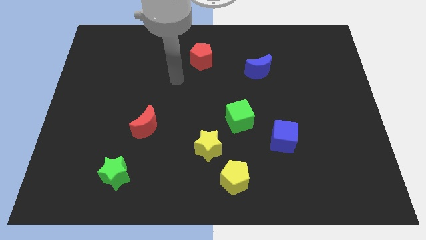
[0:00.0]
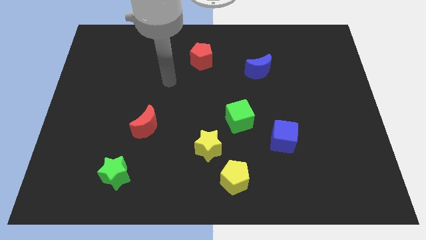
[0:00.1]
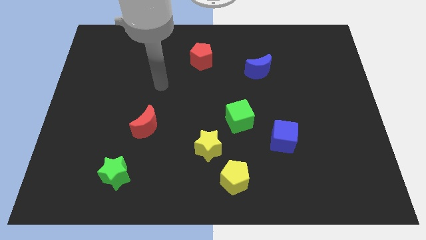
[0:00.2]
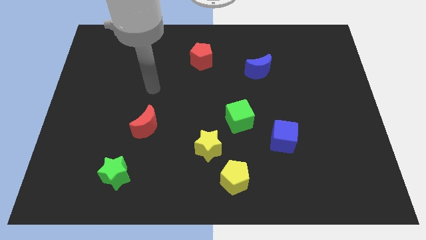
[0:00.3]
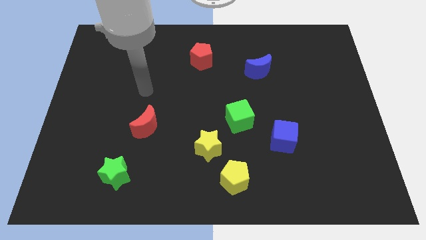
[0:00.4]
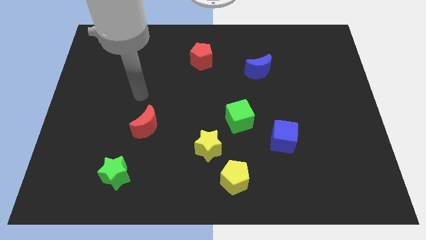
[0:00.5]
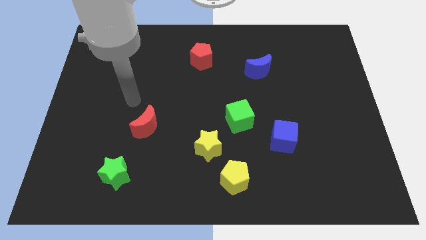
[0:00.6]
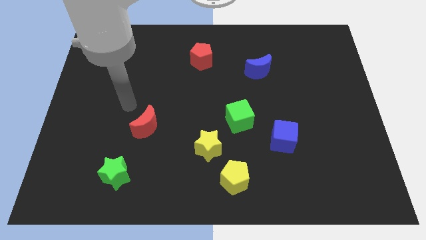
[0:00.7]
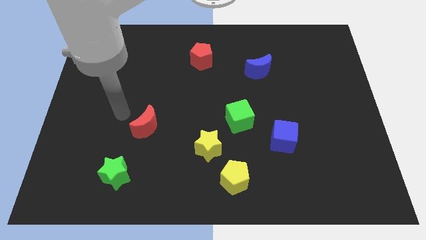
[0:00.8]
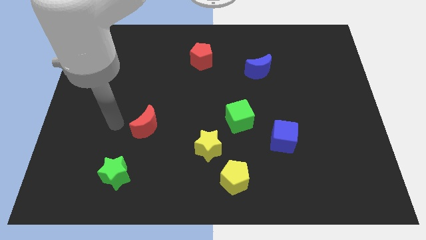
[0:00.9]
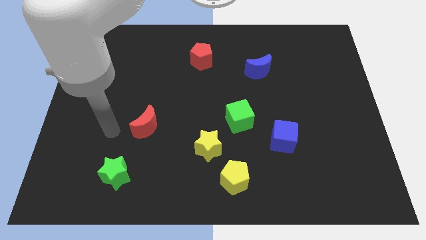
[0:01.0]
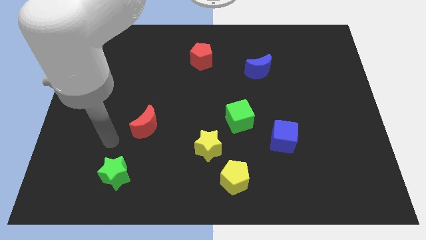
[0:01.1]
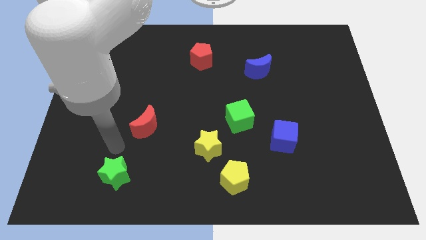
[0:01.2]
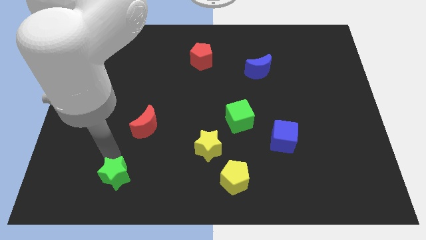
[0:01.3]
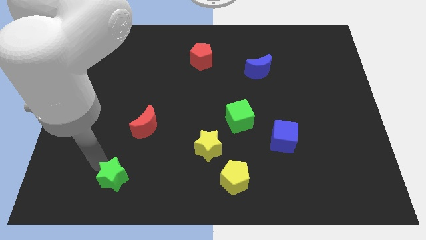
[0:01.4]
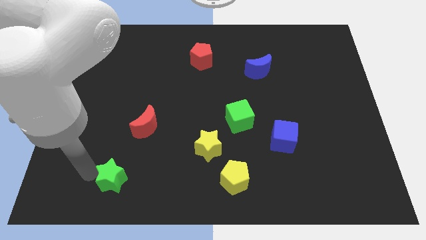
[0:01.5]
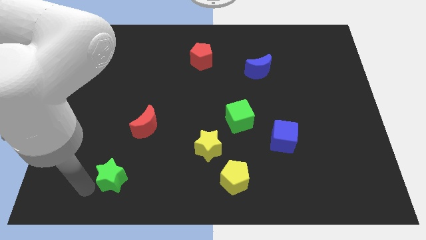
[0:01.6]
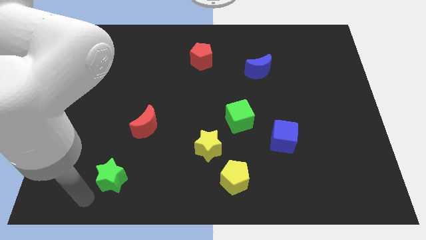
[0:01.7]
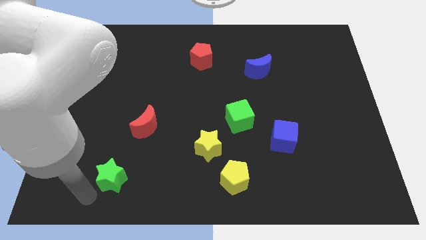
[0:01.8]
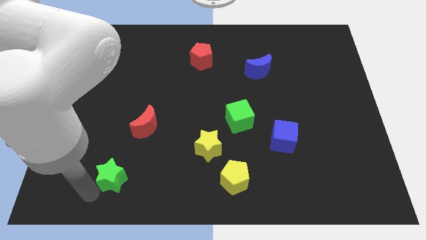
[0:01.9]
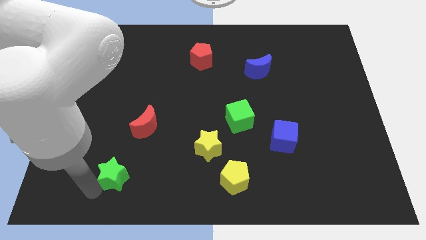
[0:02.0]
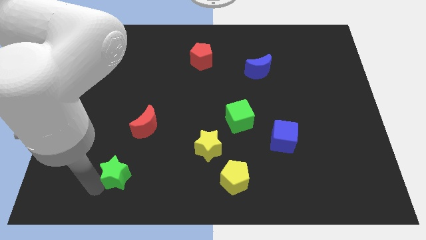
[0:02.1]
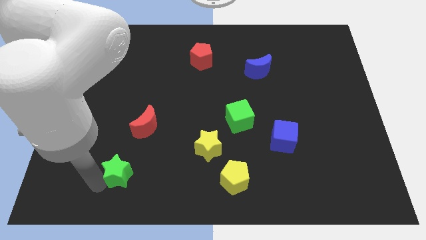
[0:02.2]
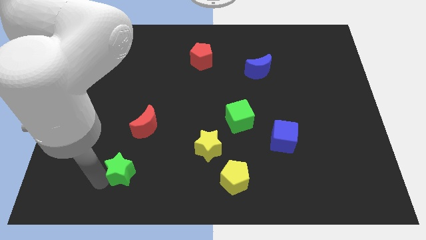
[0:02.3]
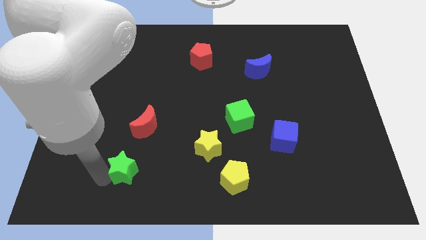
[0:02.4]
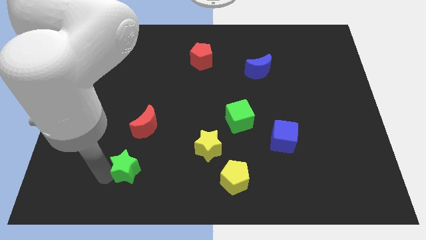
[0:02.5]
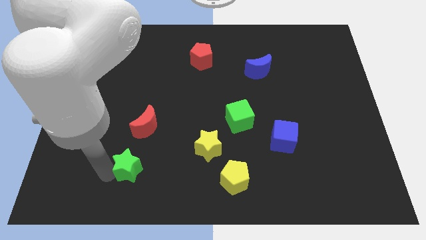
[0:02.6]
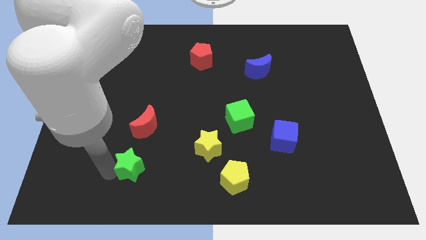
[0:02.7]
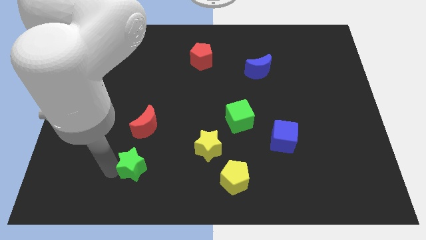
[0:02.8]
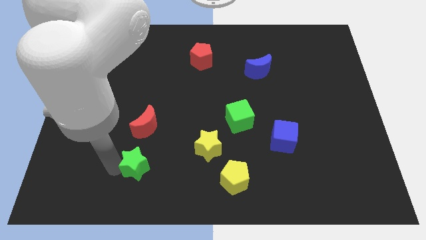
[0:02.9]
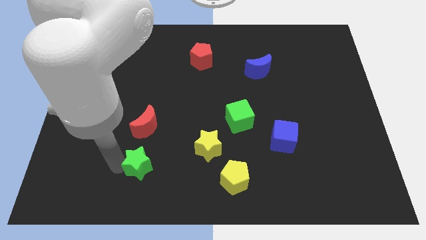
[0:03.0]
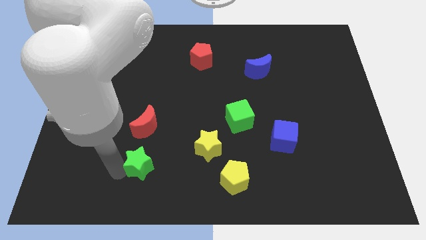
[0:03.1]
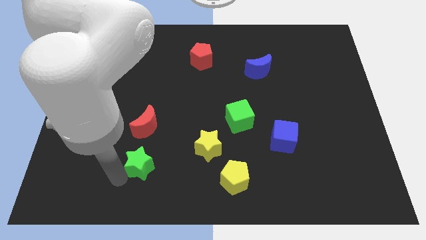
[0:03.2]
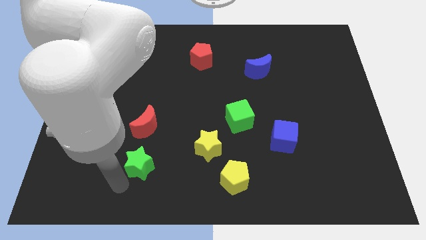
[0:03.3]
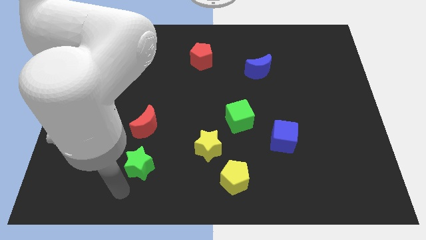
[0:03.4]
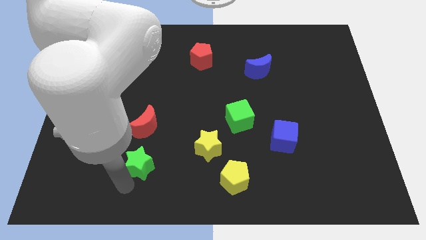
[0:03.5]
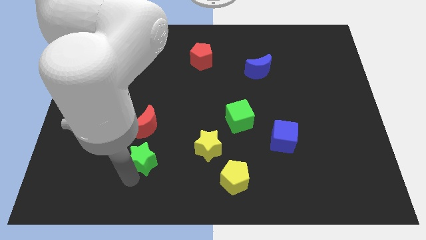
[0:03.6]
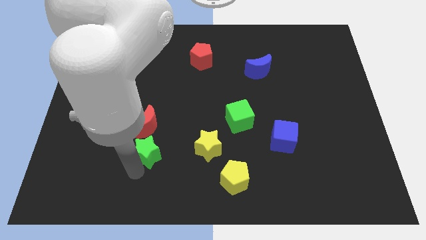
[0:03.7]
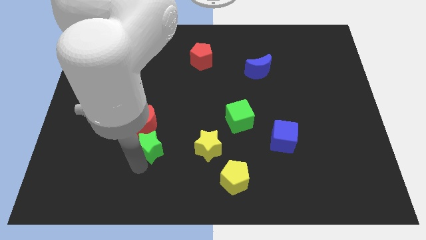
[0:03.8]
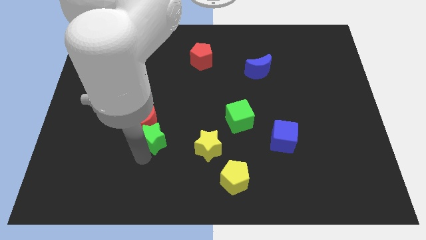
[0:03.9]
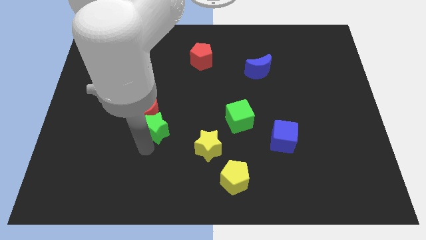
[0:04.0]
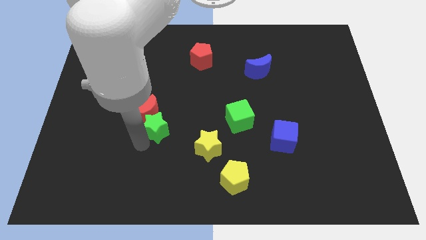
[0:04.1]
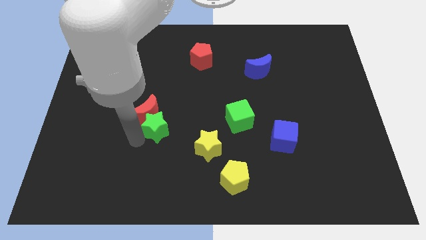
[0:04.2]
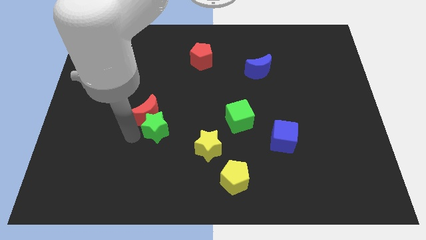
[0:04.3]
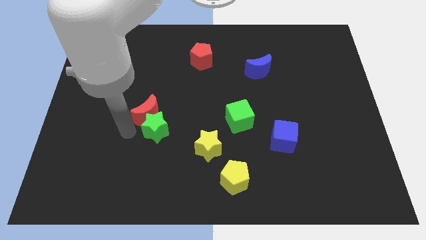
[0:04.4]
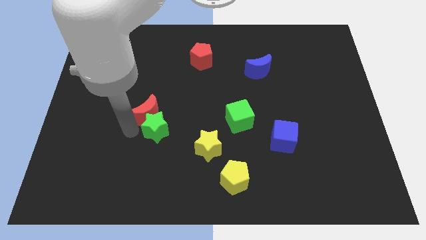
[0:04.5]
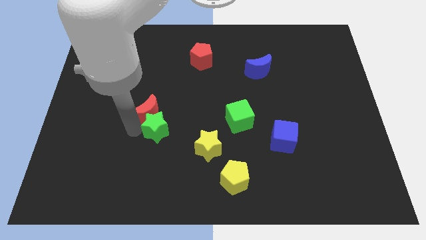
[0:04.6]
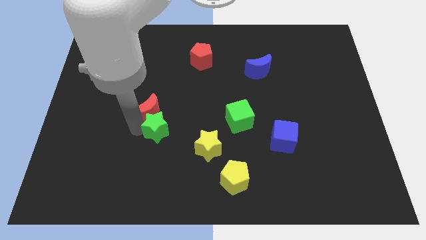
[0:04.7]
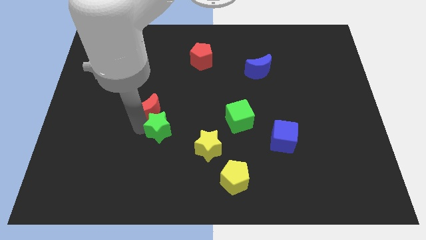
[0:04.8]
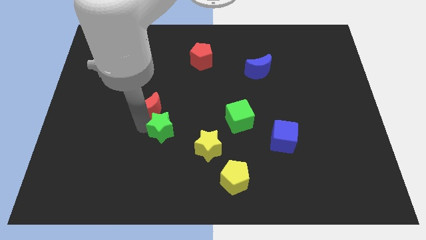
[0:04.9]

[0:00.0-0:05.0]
move the green star to the top left of the yellow star

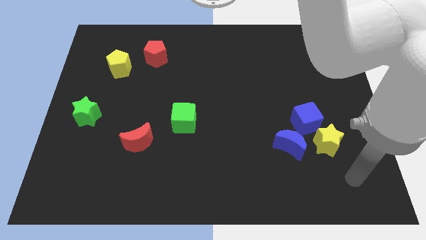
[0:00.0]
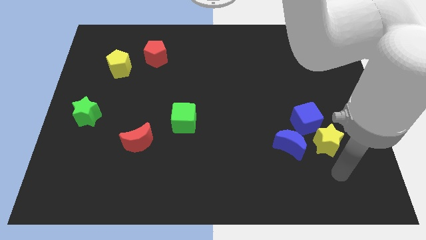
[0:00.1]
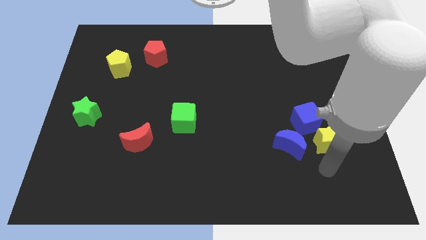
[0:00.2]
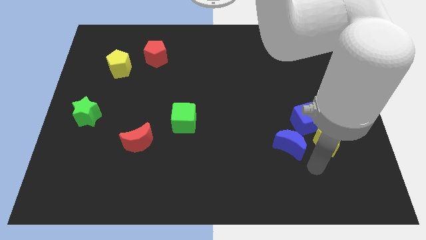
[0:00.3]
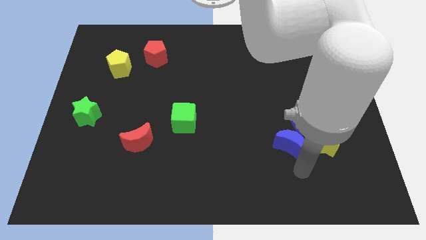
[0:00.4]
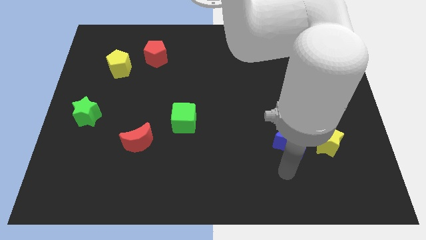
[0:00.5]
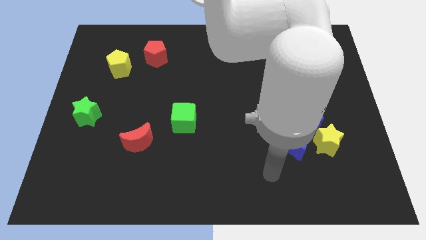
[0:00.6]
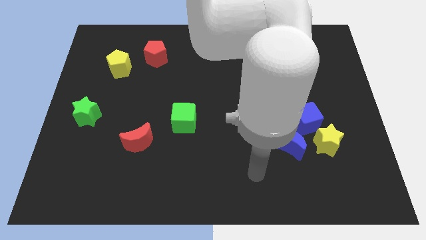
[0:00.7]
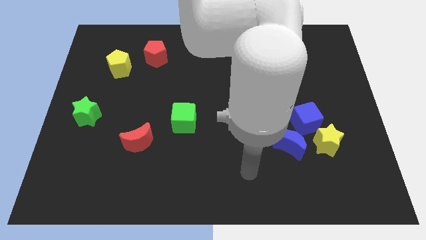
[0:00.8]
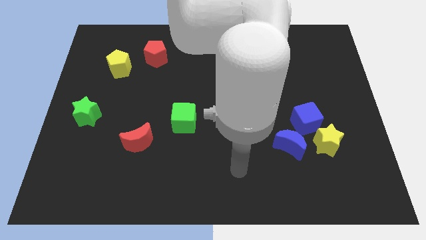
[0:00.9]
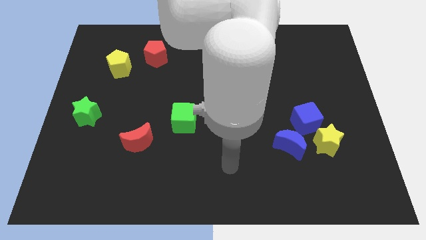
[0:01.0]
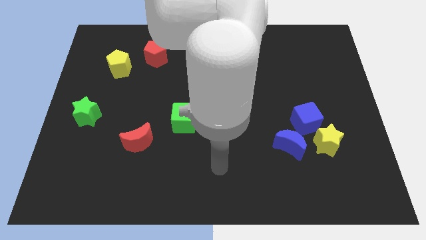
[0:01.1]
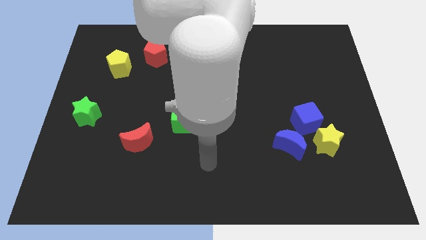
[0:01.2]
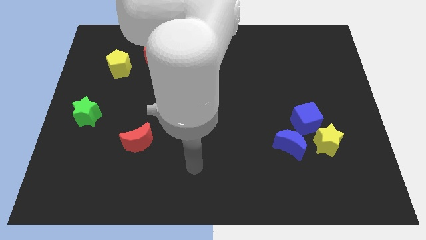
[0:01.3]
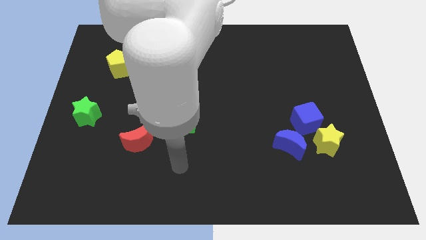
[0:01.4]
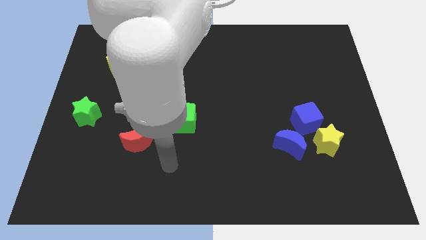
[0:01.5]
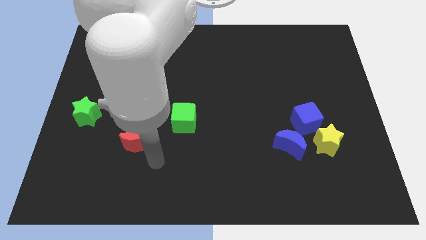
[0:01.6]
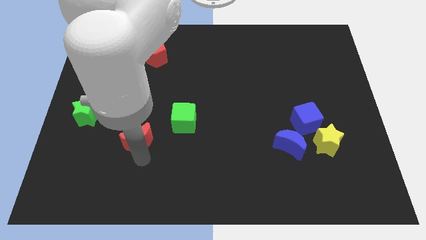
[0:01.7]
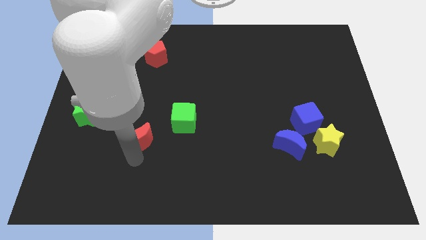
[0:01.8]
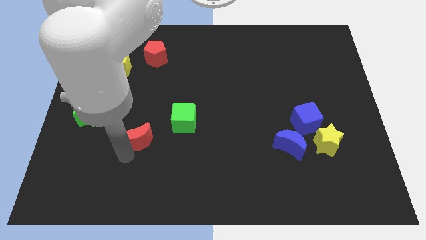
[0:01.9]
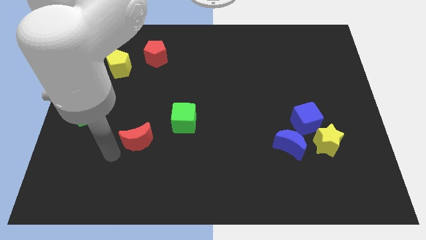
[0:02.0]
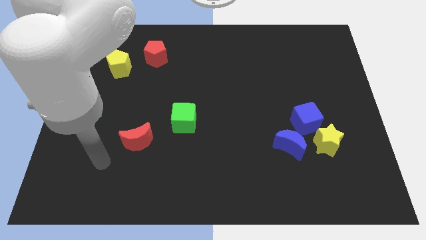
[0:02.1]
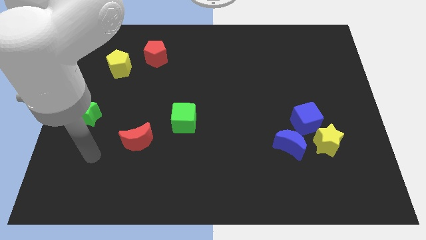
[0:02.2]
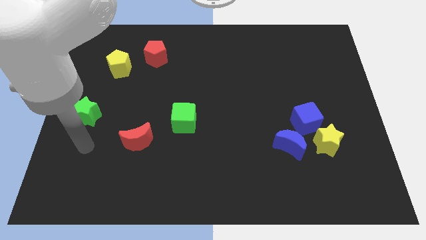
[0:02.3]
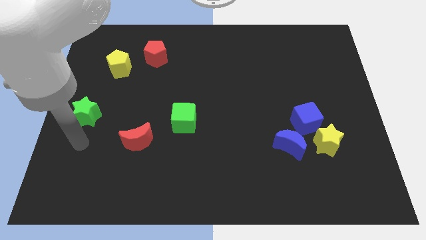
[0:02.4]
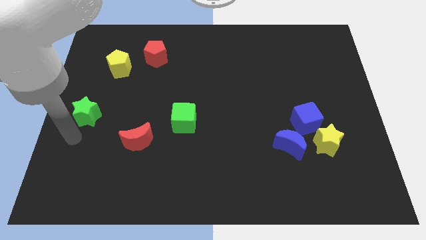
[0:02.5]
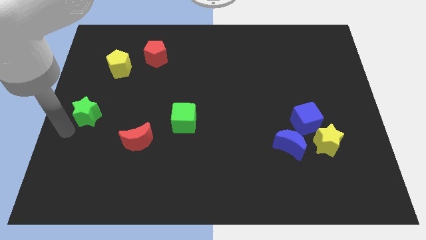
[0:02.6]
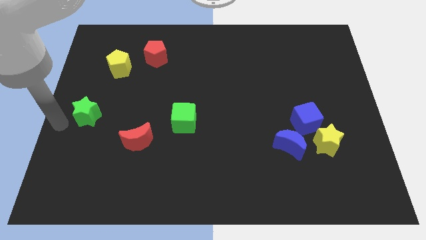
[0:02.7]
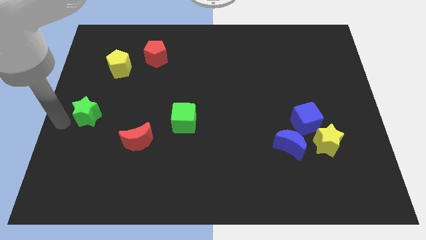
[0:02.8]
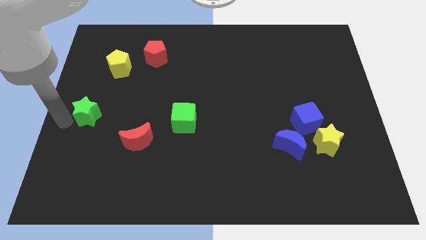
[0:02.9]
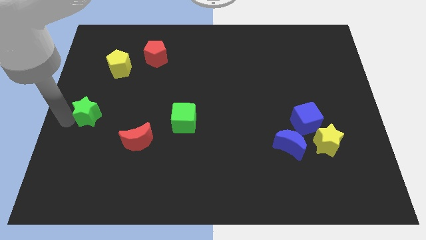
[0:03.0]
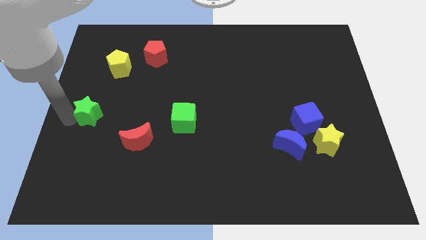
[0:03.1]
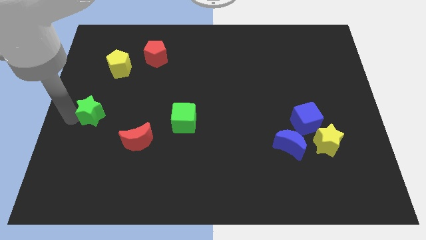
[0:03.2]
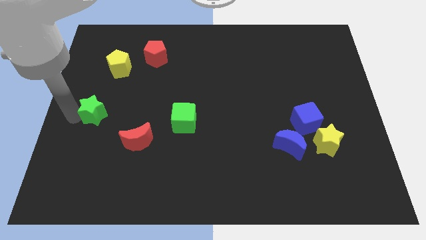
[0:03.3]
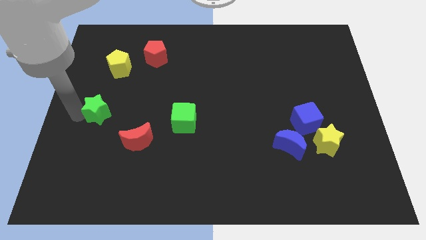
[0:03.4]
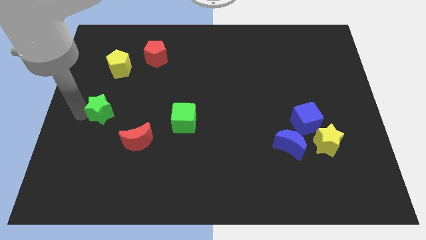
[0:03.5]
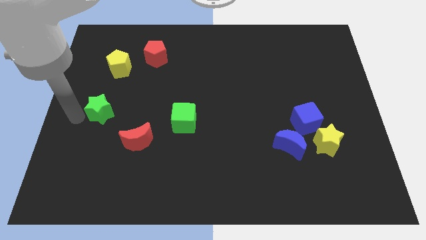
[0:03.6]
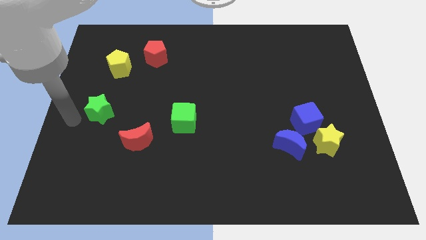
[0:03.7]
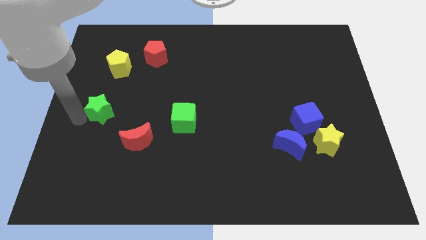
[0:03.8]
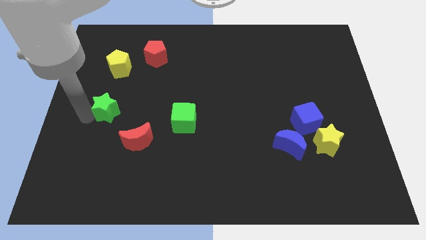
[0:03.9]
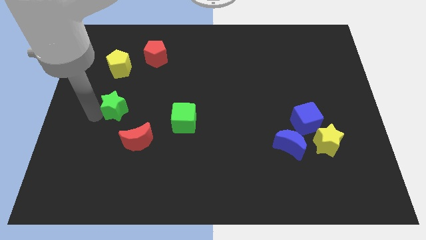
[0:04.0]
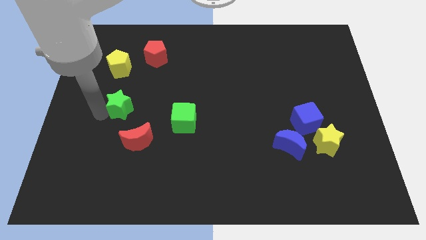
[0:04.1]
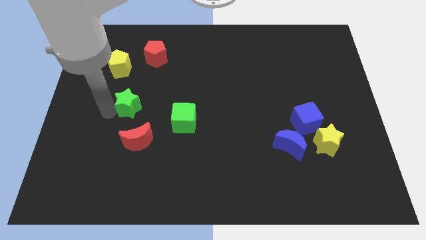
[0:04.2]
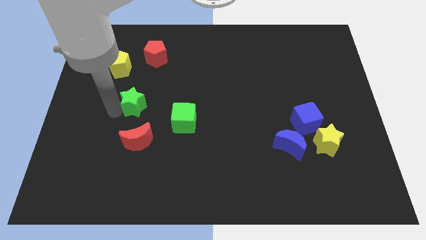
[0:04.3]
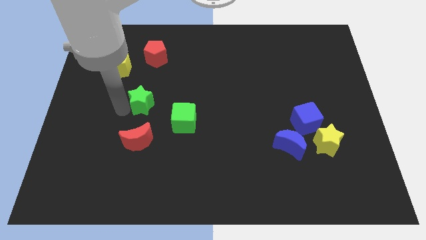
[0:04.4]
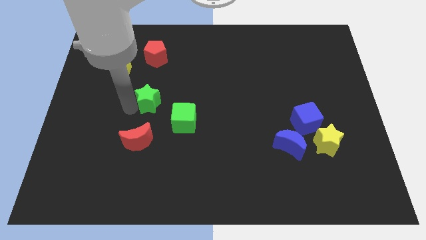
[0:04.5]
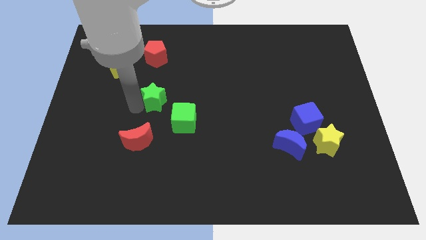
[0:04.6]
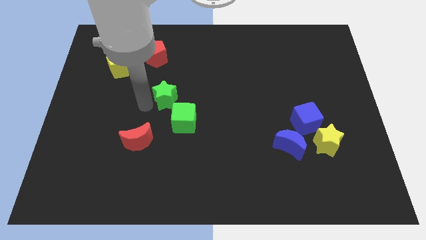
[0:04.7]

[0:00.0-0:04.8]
slide the green star above the green cube
